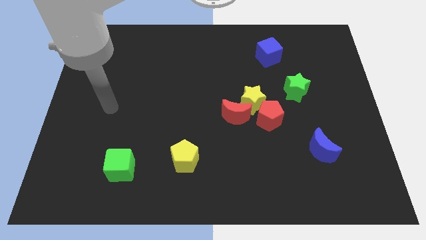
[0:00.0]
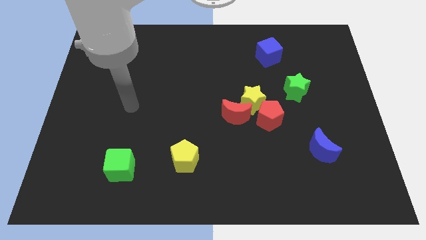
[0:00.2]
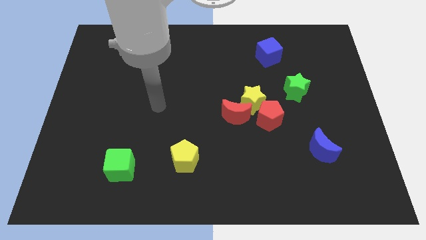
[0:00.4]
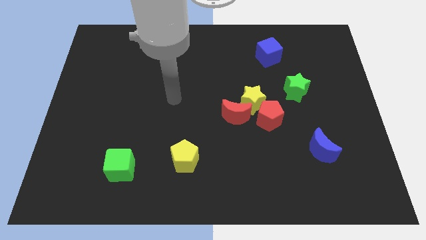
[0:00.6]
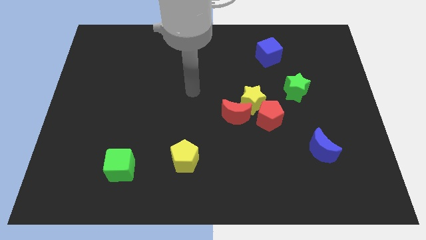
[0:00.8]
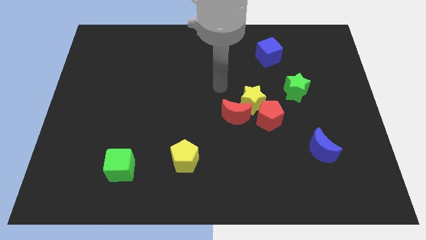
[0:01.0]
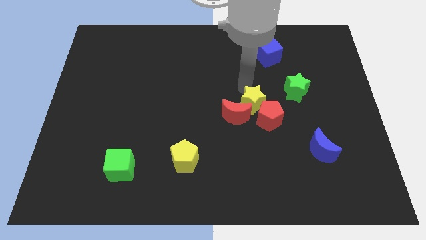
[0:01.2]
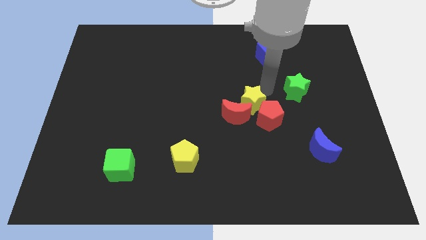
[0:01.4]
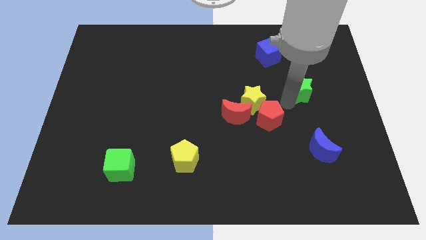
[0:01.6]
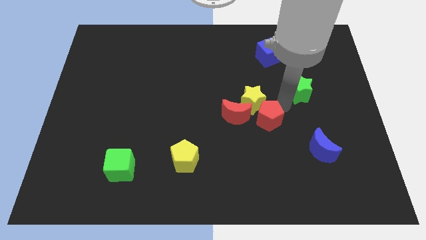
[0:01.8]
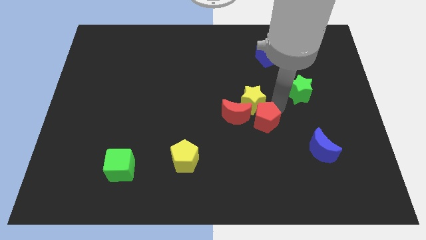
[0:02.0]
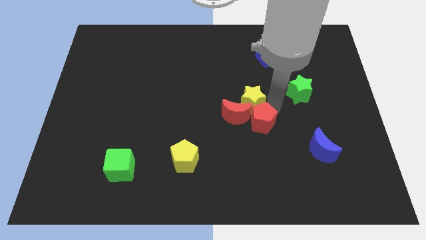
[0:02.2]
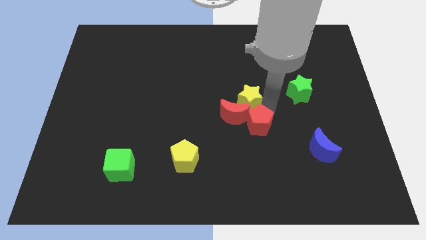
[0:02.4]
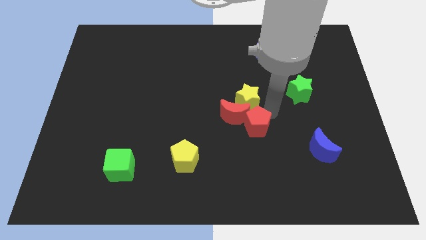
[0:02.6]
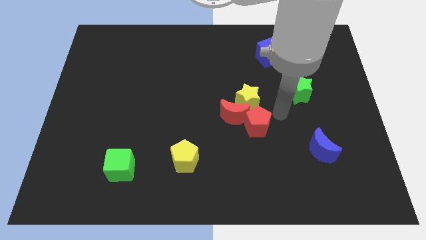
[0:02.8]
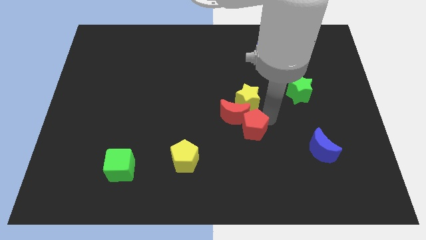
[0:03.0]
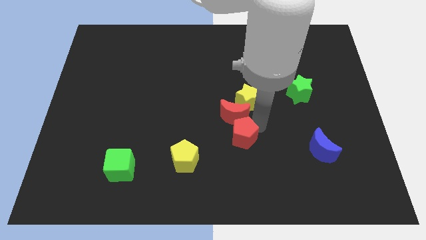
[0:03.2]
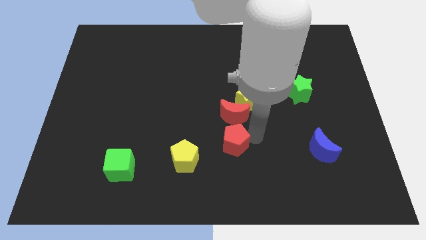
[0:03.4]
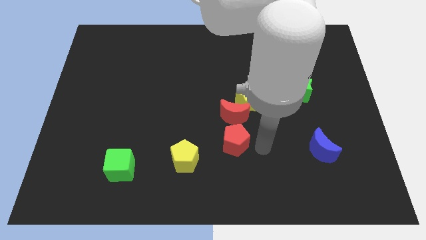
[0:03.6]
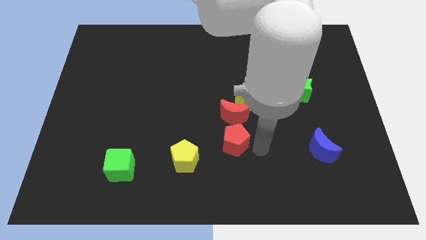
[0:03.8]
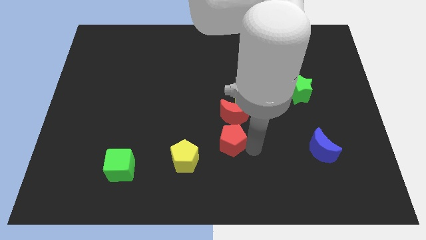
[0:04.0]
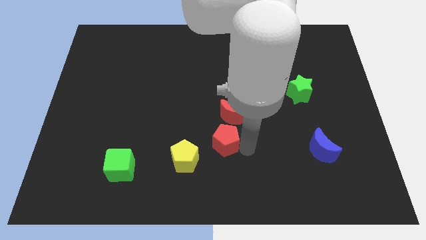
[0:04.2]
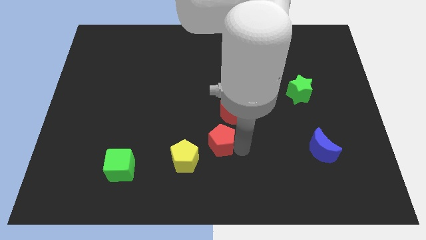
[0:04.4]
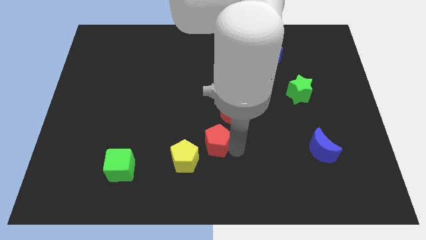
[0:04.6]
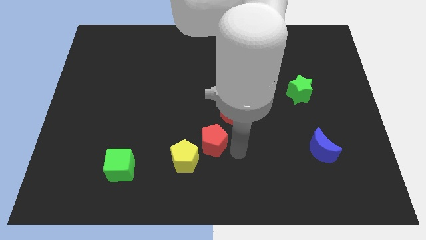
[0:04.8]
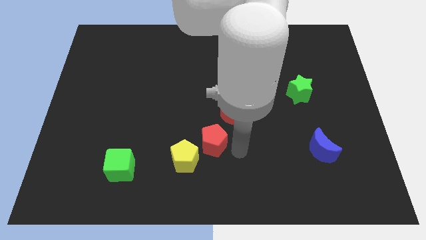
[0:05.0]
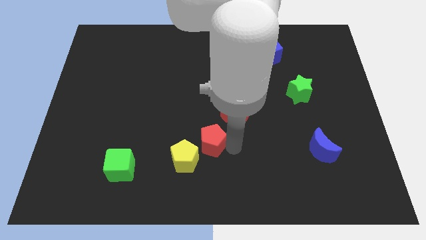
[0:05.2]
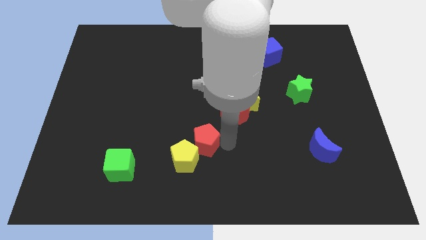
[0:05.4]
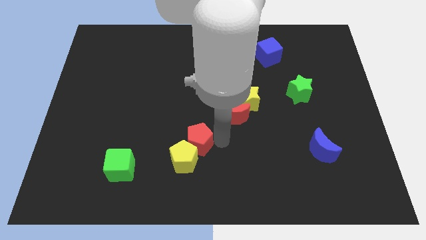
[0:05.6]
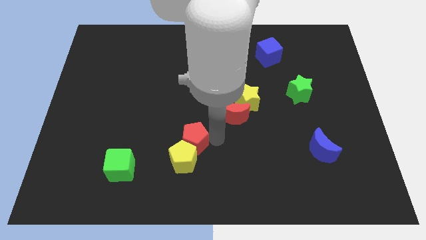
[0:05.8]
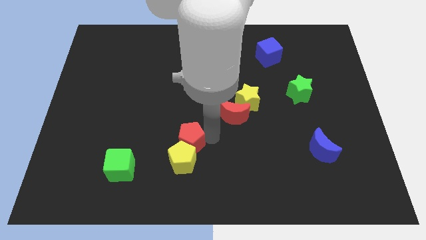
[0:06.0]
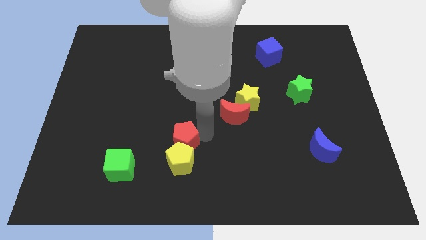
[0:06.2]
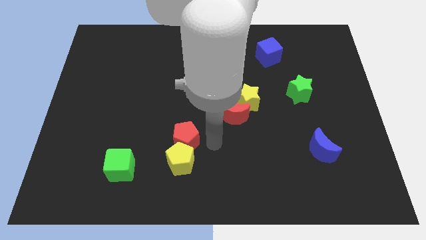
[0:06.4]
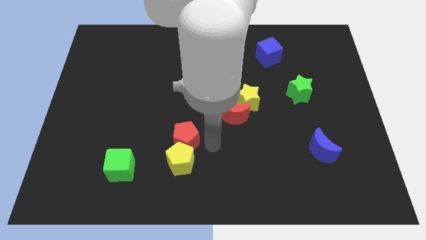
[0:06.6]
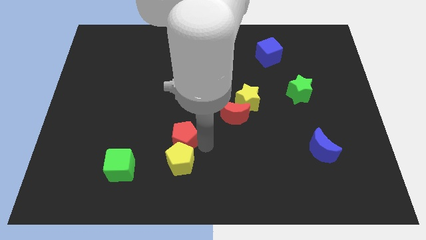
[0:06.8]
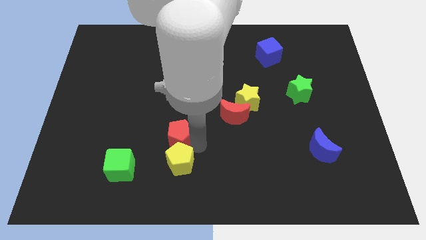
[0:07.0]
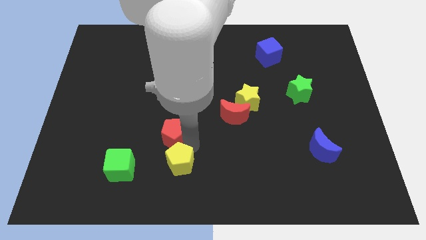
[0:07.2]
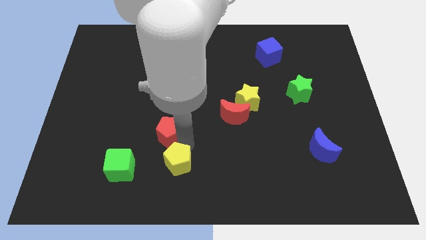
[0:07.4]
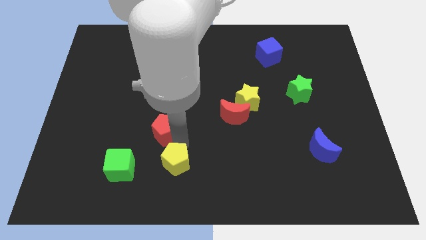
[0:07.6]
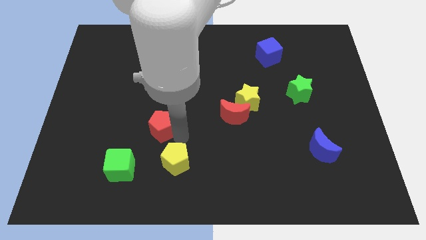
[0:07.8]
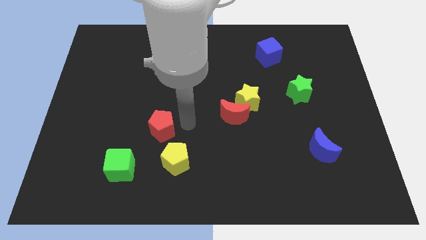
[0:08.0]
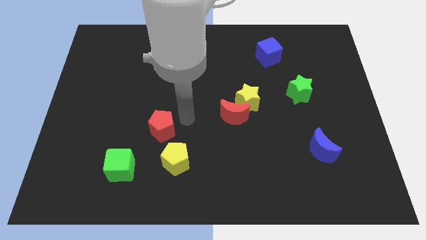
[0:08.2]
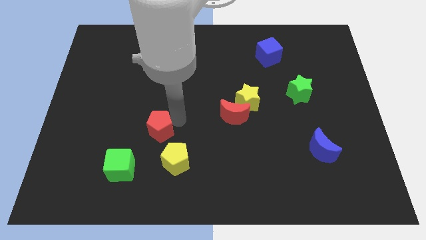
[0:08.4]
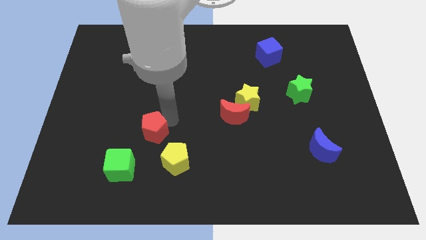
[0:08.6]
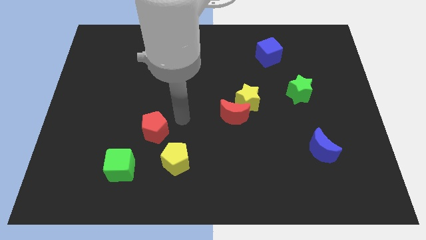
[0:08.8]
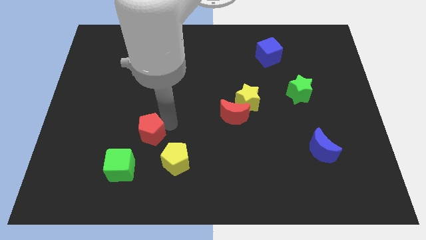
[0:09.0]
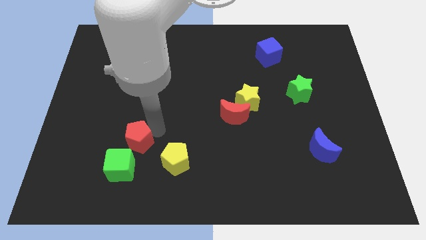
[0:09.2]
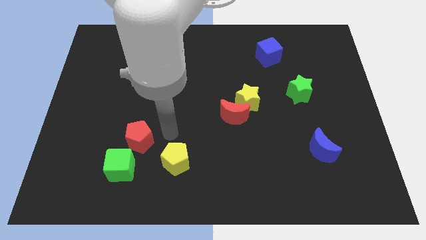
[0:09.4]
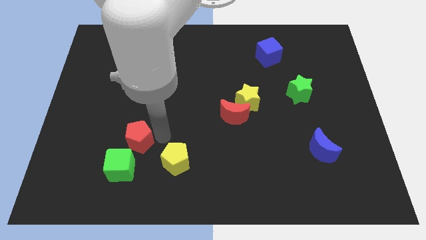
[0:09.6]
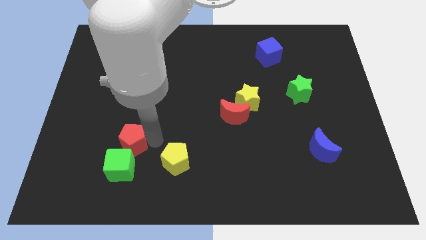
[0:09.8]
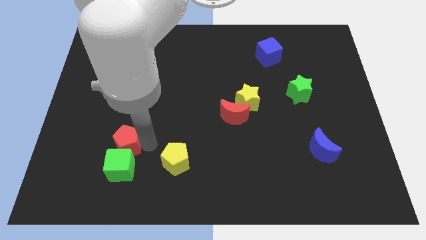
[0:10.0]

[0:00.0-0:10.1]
put the red pentagon to the top left side of the green cube

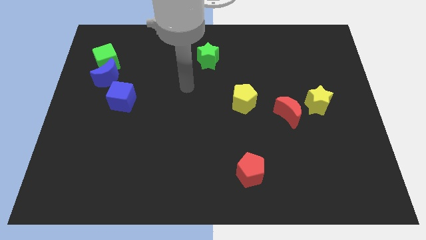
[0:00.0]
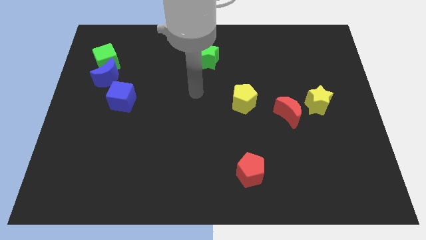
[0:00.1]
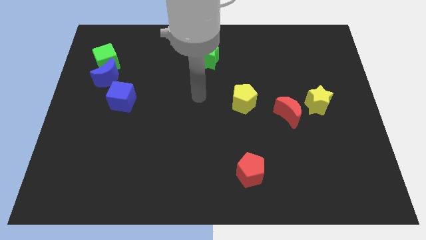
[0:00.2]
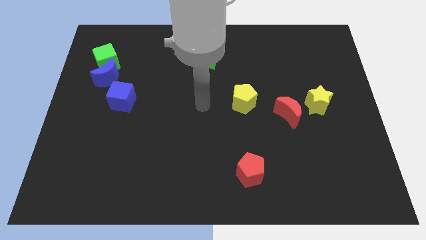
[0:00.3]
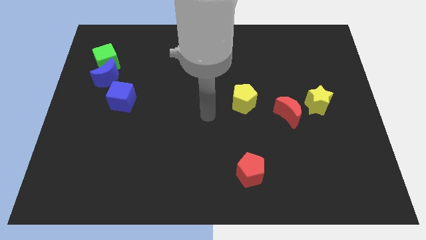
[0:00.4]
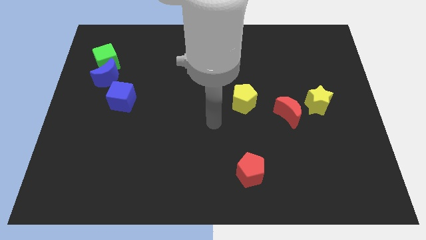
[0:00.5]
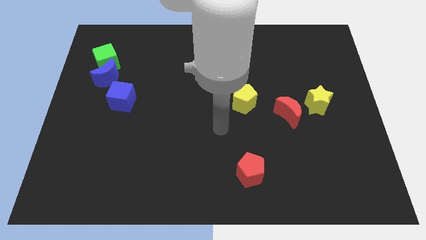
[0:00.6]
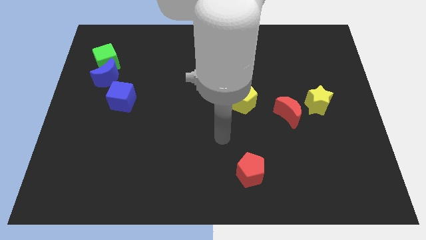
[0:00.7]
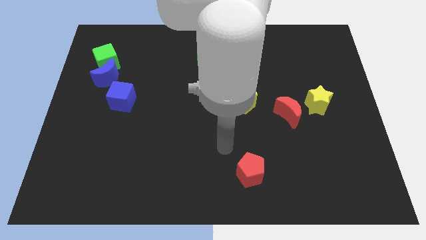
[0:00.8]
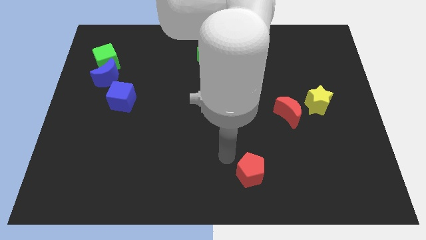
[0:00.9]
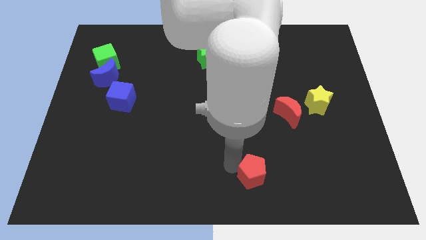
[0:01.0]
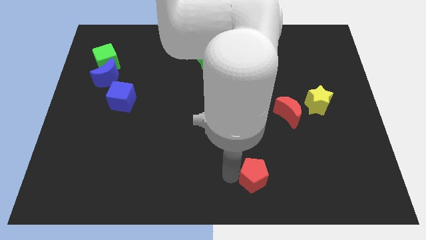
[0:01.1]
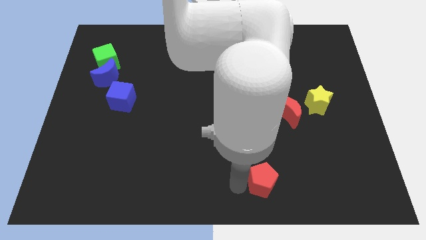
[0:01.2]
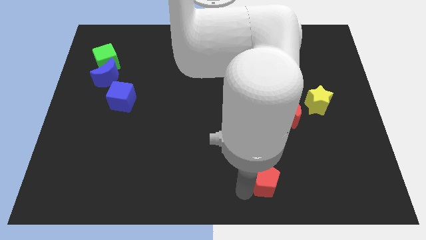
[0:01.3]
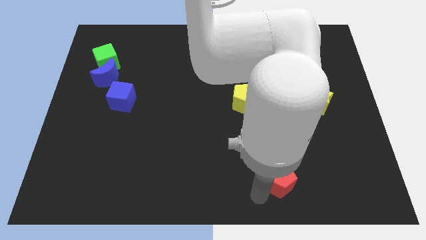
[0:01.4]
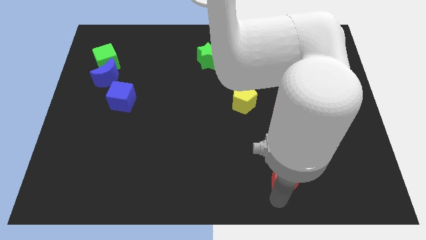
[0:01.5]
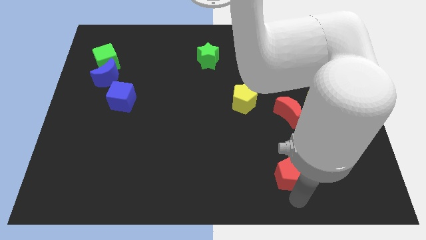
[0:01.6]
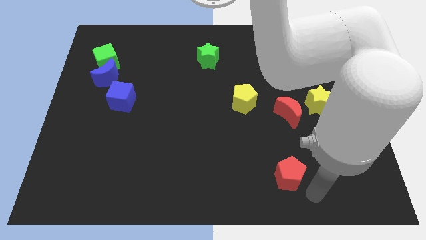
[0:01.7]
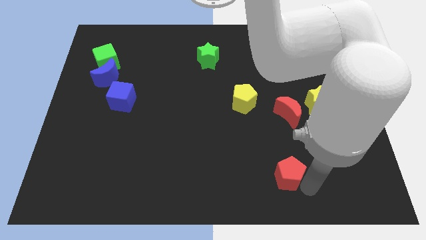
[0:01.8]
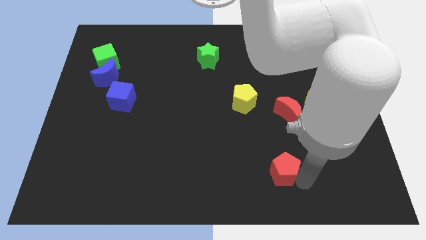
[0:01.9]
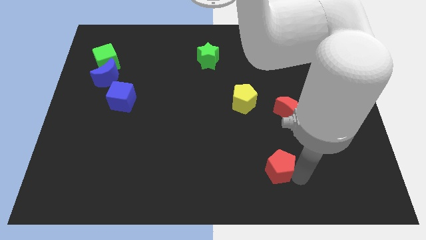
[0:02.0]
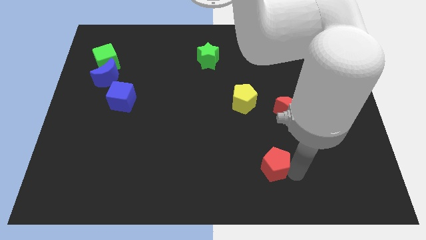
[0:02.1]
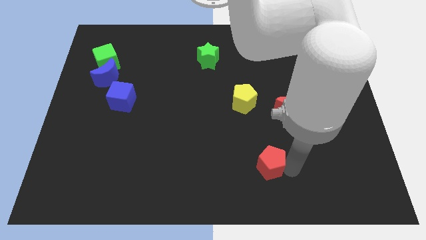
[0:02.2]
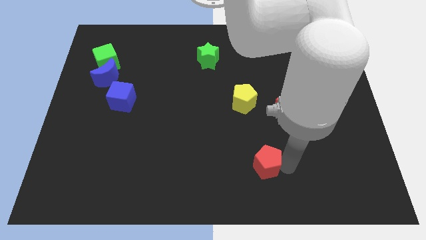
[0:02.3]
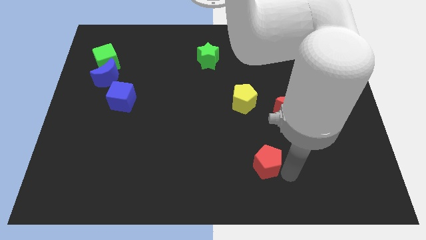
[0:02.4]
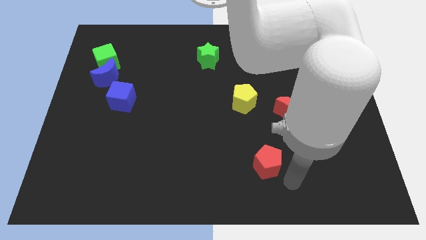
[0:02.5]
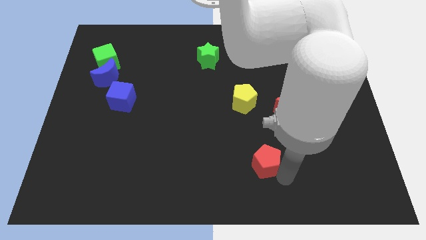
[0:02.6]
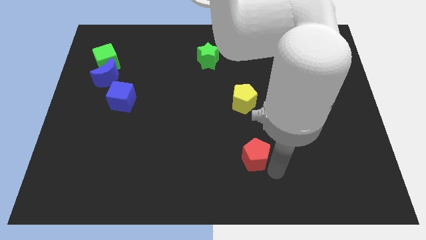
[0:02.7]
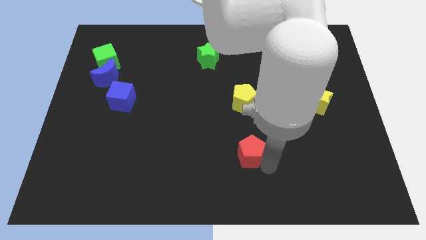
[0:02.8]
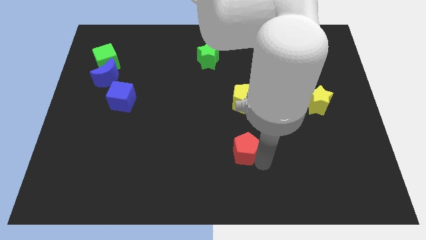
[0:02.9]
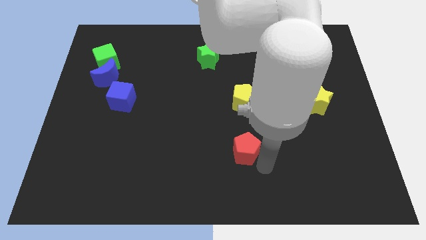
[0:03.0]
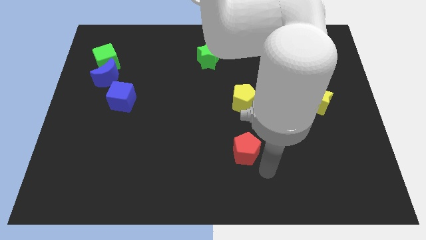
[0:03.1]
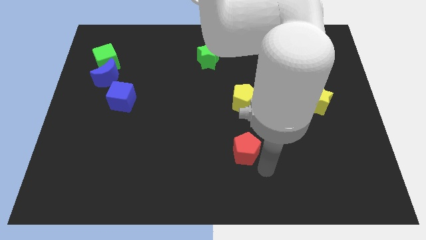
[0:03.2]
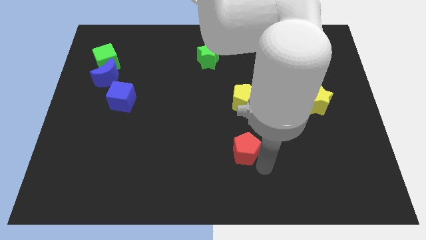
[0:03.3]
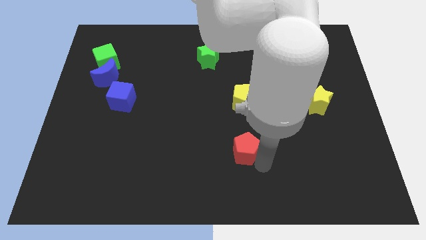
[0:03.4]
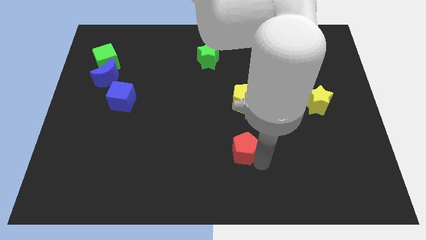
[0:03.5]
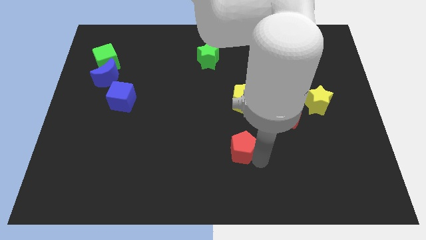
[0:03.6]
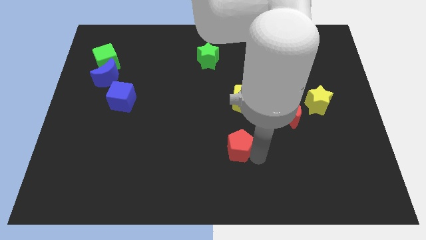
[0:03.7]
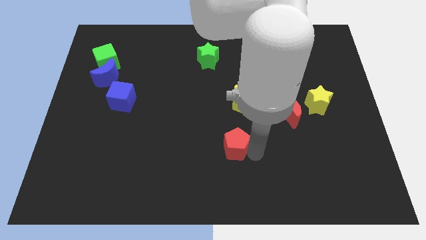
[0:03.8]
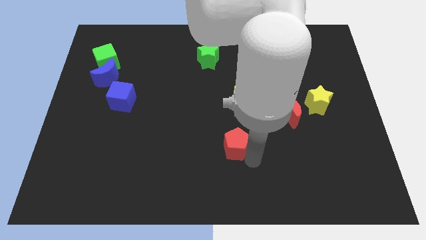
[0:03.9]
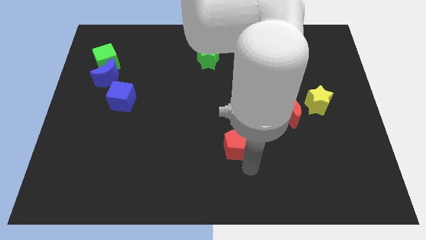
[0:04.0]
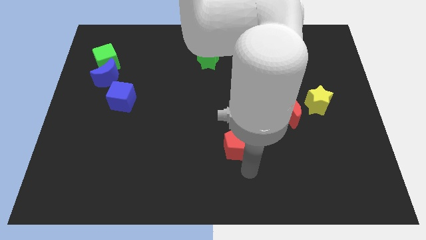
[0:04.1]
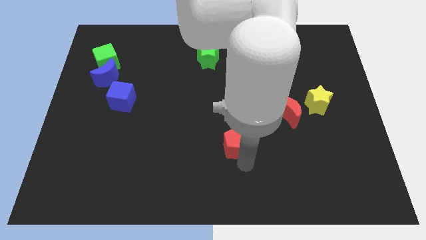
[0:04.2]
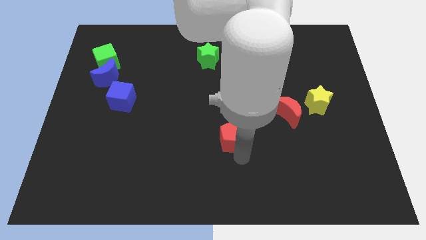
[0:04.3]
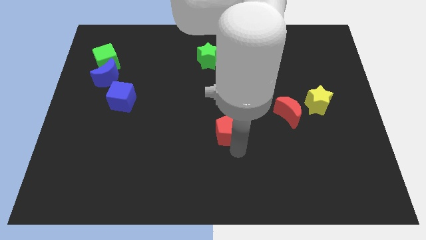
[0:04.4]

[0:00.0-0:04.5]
push the red pentagon to the bottom left side of the yellow pentagon
